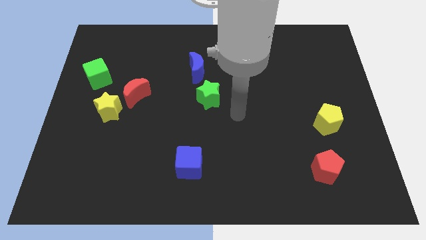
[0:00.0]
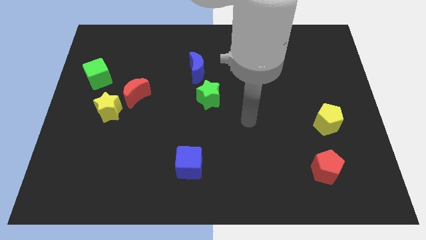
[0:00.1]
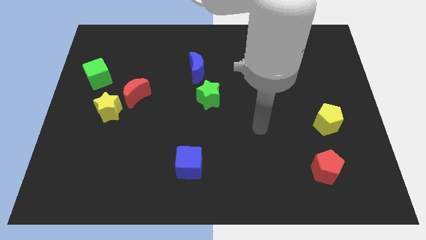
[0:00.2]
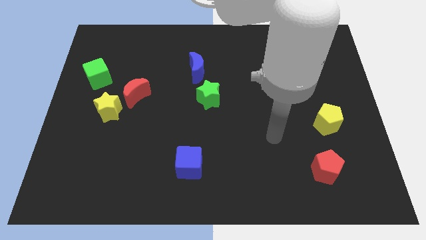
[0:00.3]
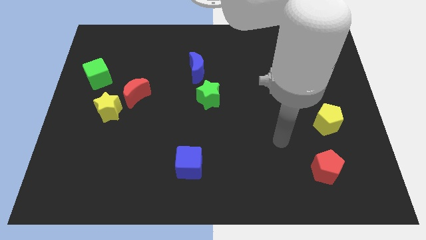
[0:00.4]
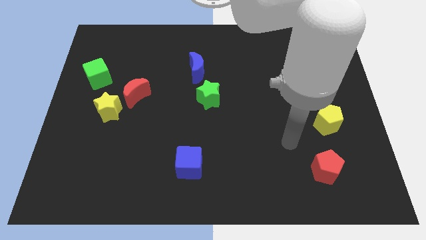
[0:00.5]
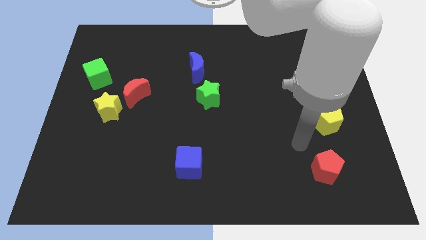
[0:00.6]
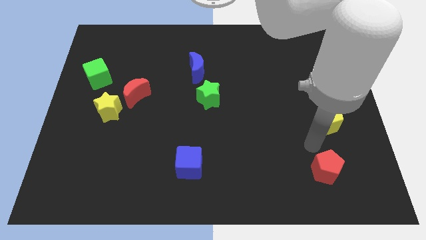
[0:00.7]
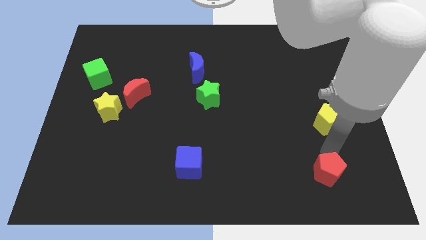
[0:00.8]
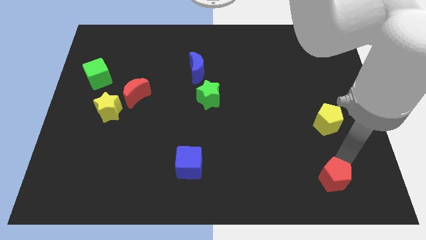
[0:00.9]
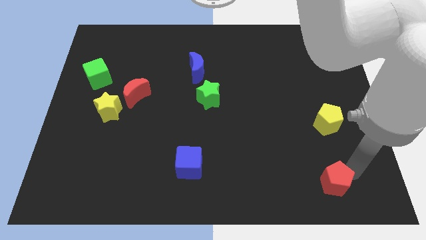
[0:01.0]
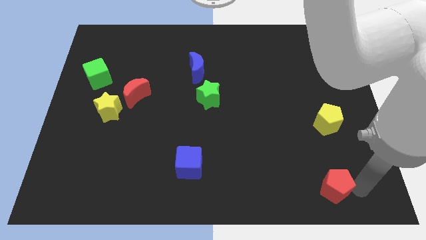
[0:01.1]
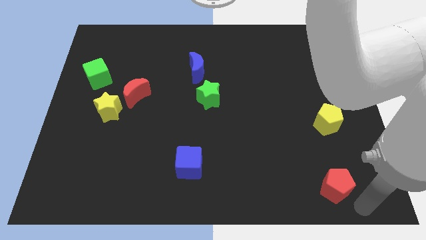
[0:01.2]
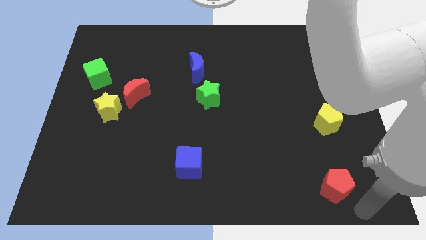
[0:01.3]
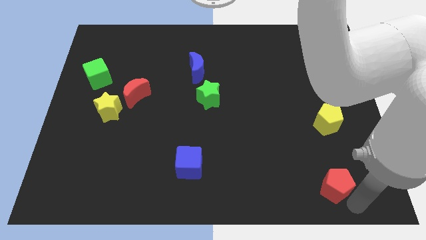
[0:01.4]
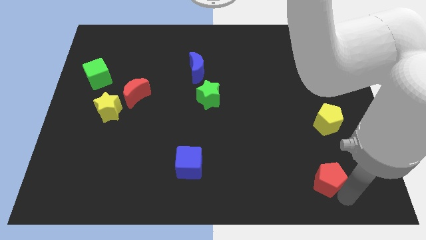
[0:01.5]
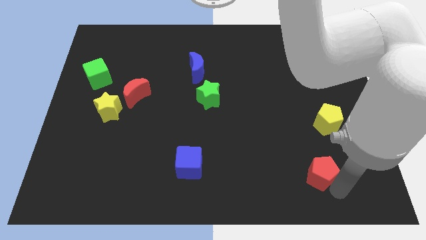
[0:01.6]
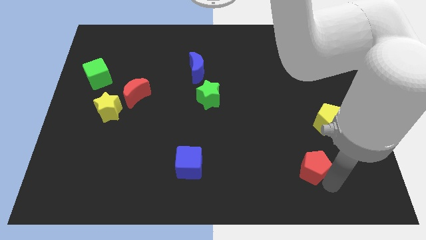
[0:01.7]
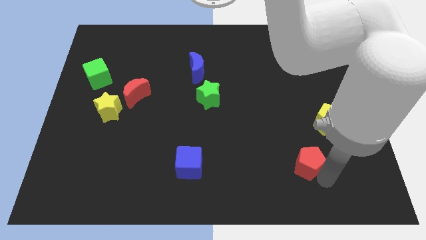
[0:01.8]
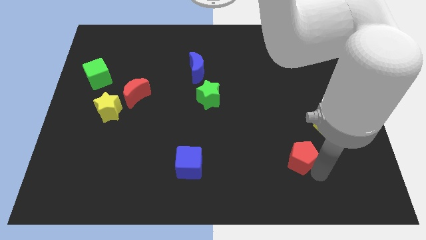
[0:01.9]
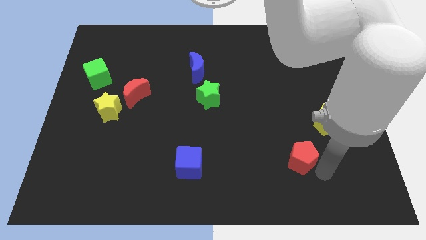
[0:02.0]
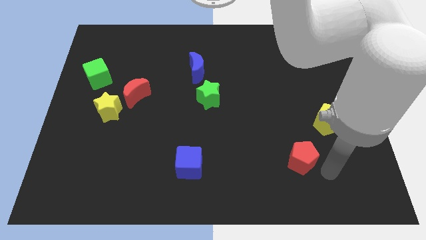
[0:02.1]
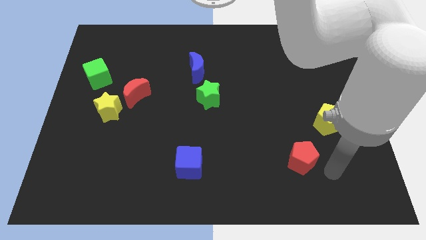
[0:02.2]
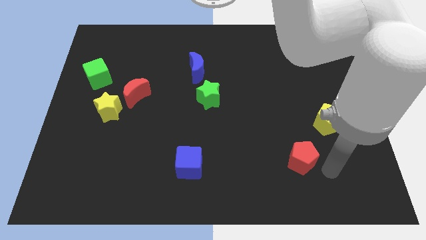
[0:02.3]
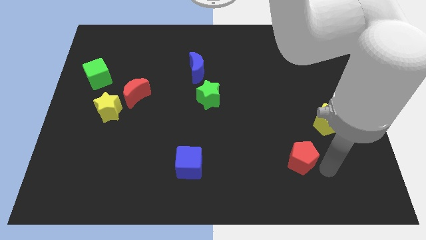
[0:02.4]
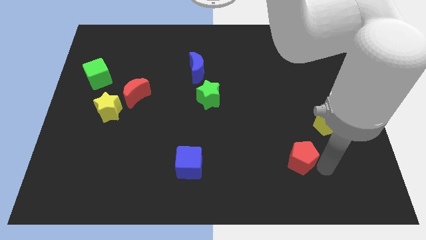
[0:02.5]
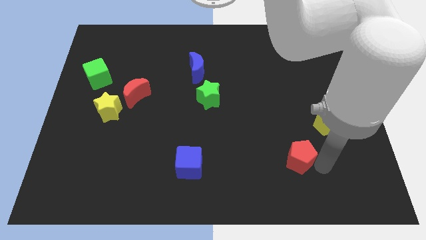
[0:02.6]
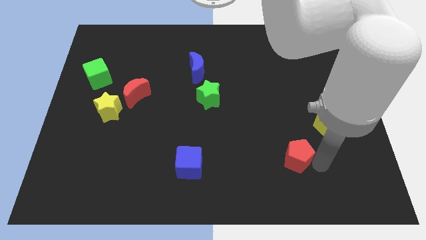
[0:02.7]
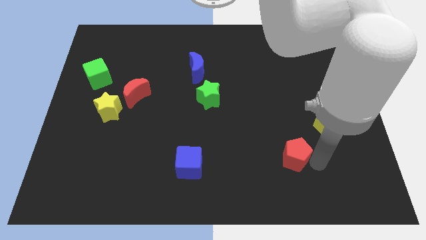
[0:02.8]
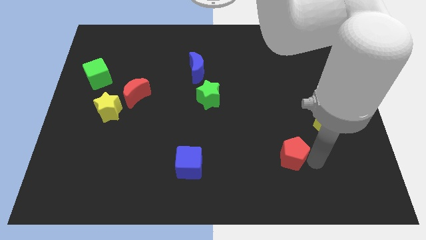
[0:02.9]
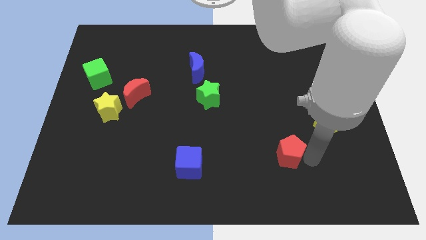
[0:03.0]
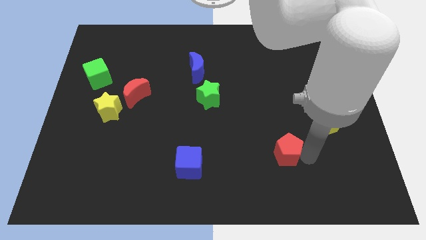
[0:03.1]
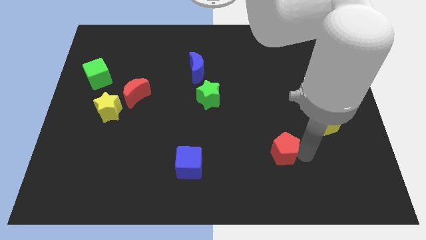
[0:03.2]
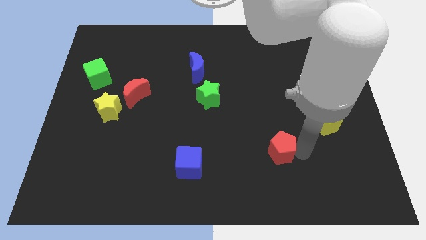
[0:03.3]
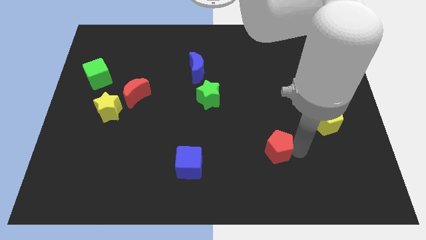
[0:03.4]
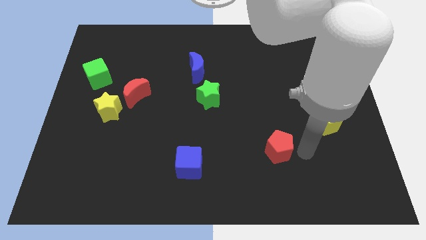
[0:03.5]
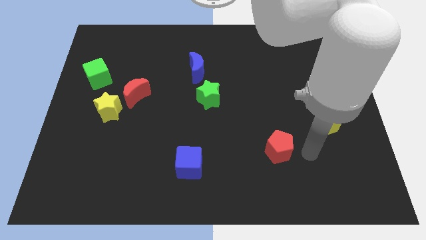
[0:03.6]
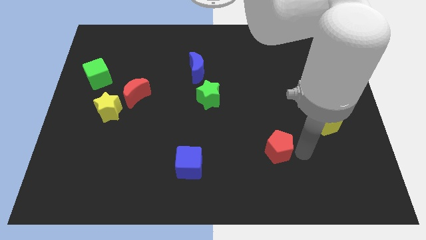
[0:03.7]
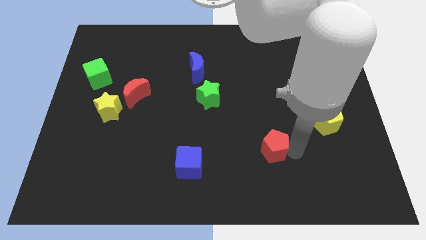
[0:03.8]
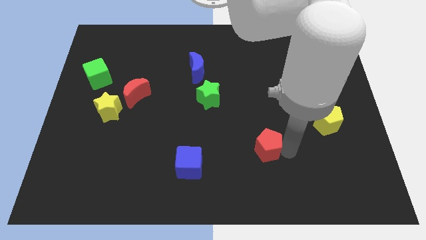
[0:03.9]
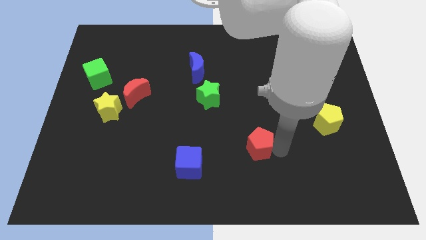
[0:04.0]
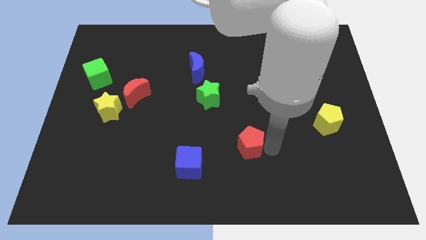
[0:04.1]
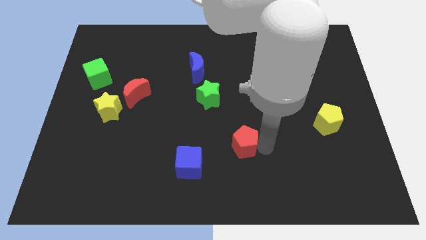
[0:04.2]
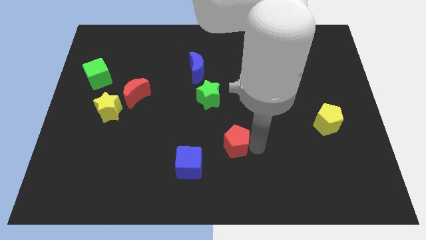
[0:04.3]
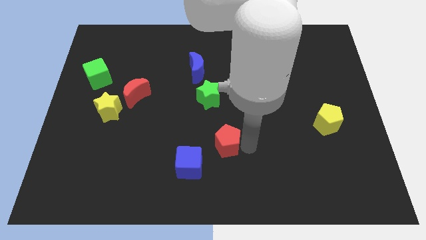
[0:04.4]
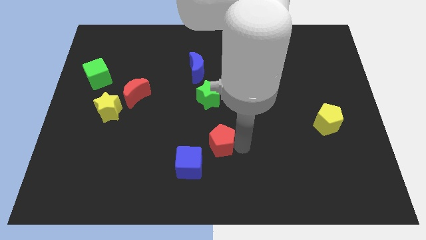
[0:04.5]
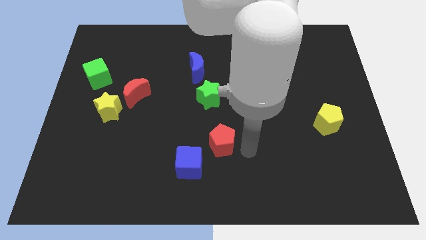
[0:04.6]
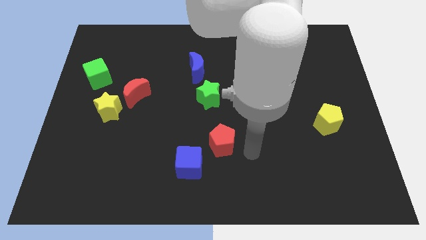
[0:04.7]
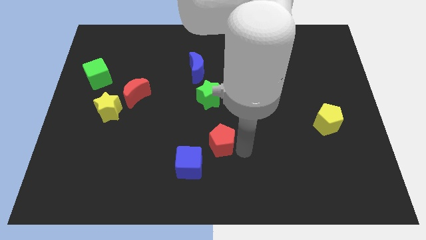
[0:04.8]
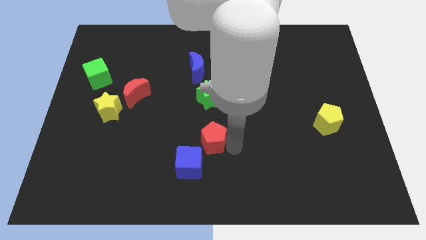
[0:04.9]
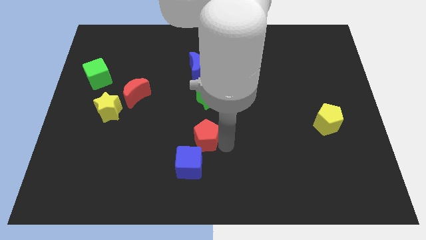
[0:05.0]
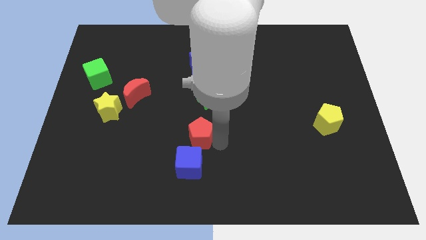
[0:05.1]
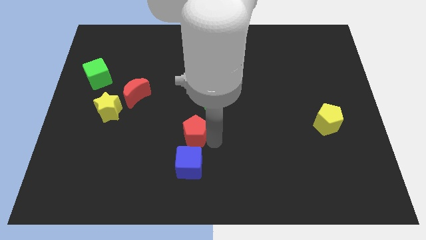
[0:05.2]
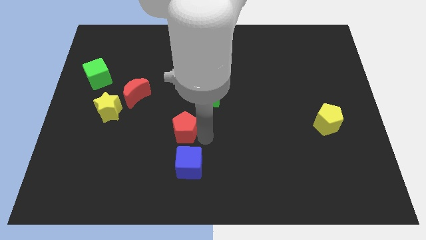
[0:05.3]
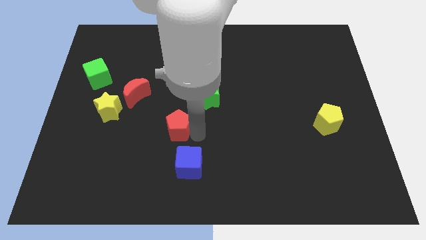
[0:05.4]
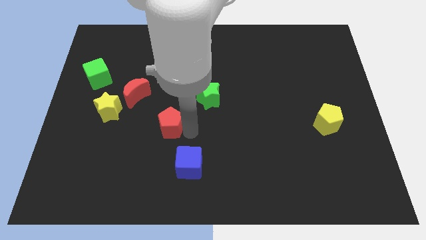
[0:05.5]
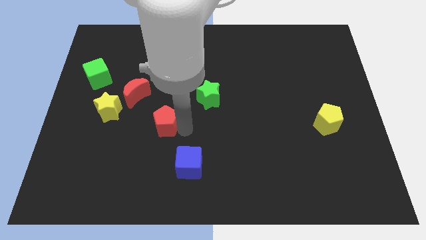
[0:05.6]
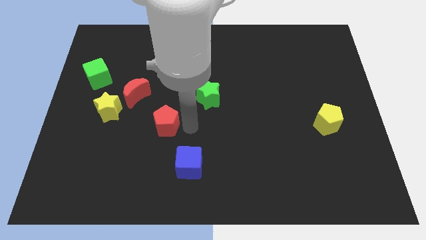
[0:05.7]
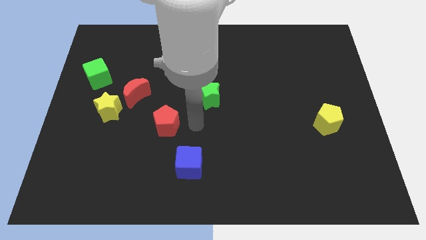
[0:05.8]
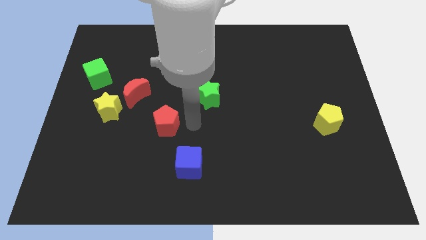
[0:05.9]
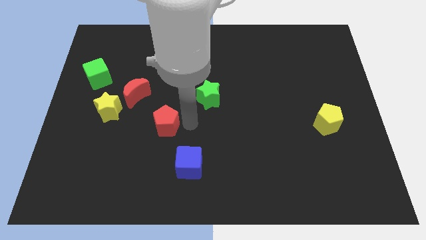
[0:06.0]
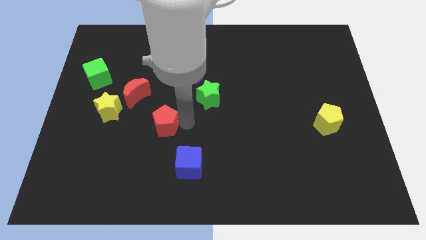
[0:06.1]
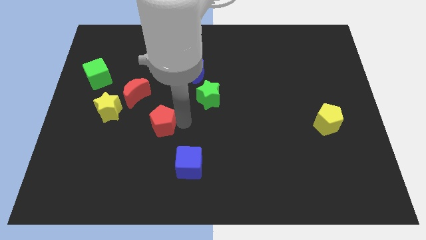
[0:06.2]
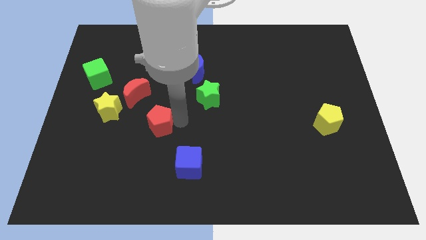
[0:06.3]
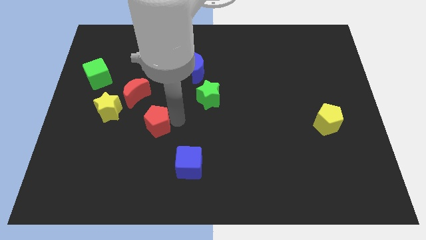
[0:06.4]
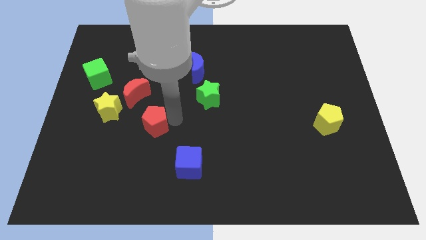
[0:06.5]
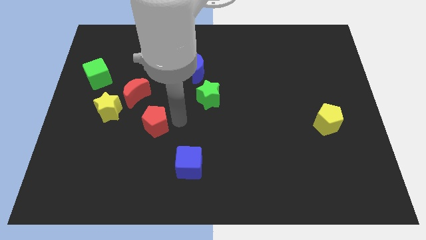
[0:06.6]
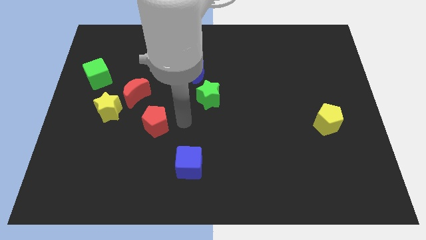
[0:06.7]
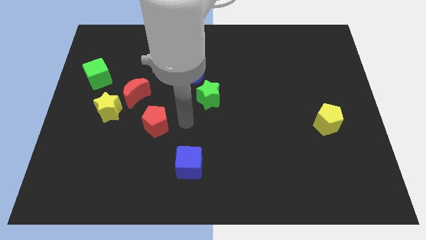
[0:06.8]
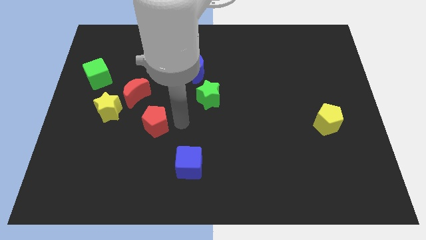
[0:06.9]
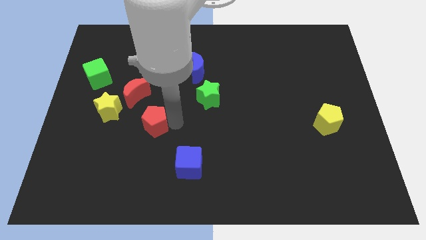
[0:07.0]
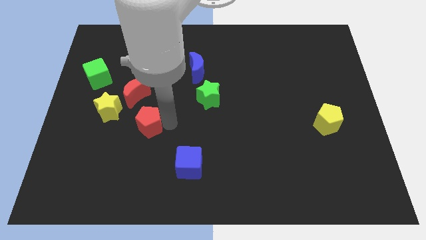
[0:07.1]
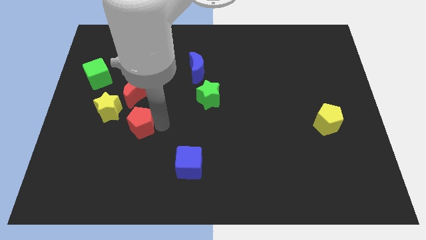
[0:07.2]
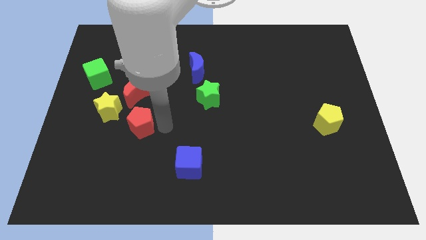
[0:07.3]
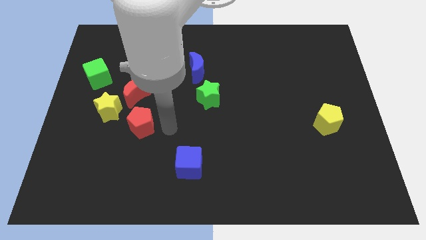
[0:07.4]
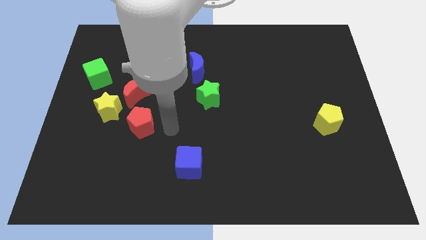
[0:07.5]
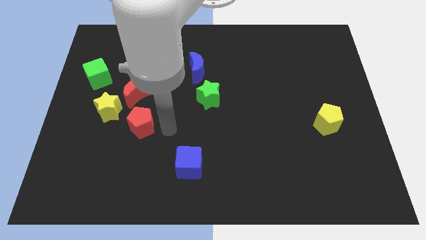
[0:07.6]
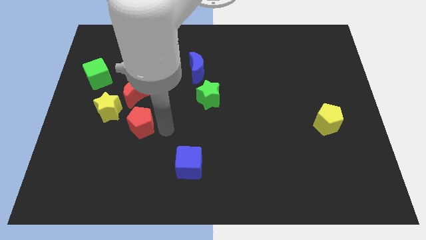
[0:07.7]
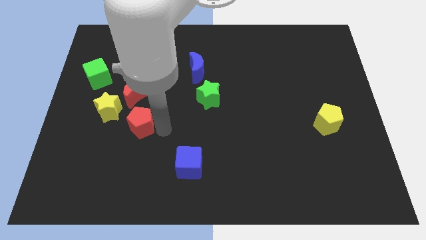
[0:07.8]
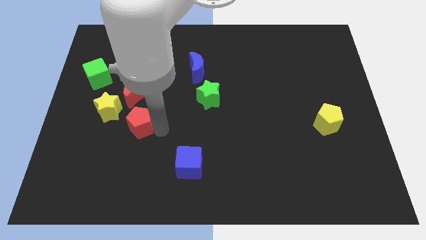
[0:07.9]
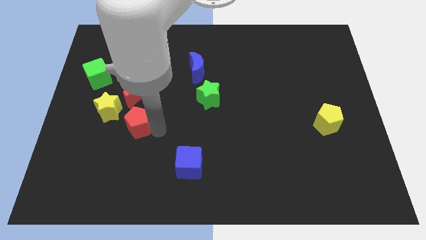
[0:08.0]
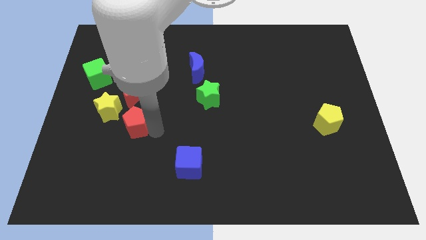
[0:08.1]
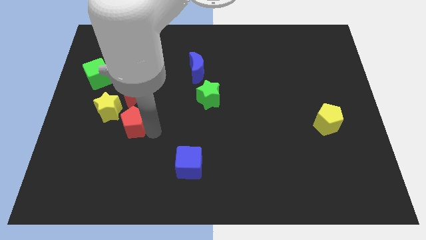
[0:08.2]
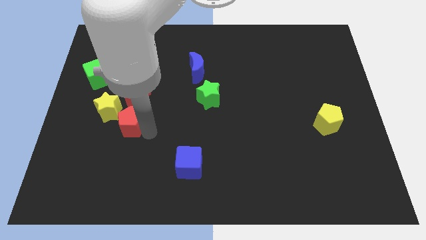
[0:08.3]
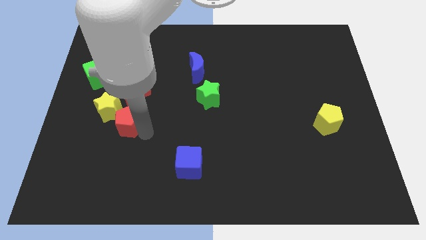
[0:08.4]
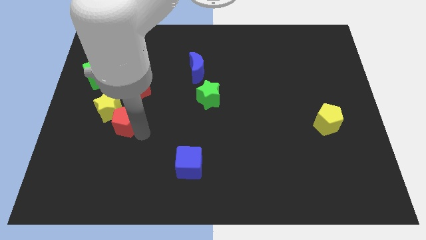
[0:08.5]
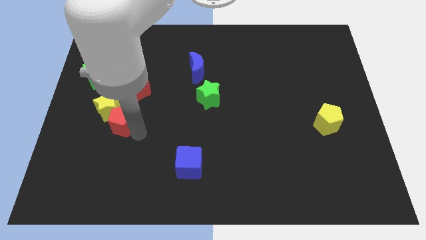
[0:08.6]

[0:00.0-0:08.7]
slide the red pentagon to the yellow star
